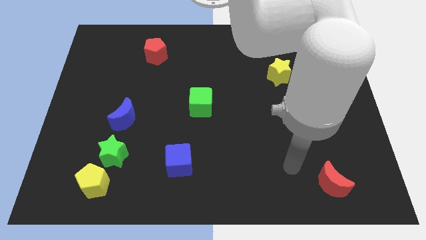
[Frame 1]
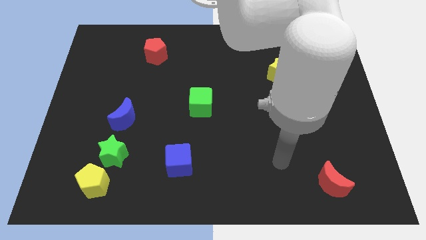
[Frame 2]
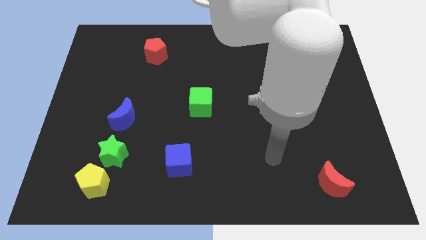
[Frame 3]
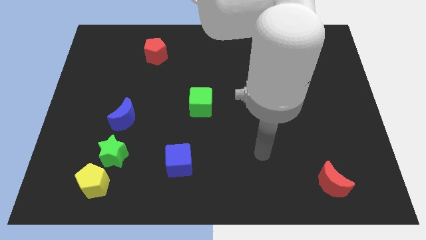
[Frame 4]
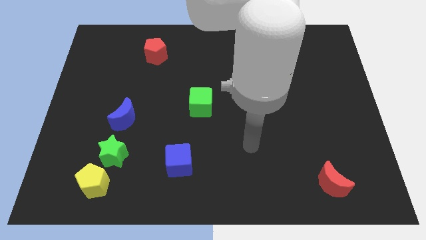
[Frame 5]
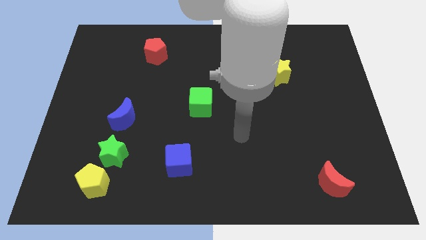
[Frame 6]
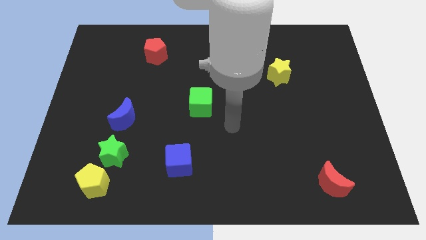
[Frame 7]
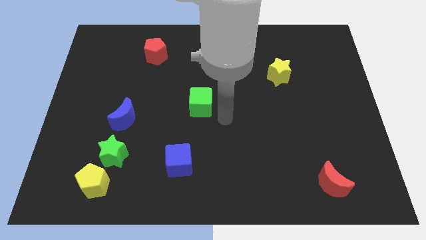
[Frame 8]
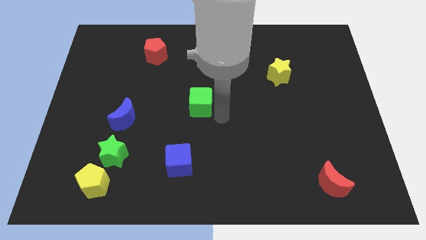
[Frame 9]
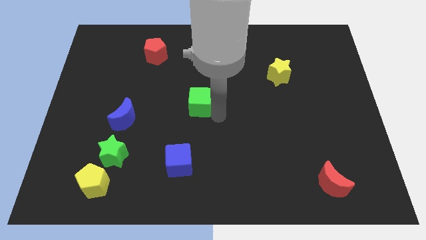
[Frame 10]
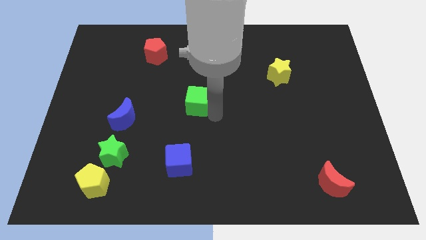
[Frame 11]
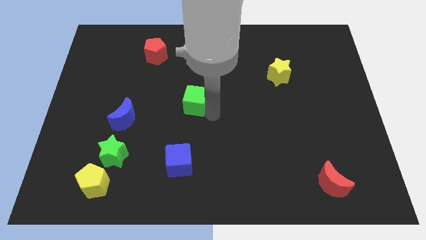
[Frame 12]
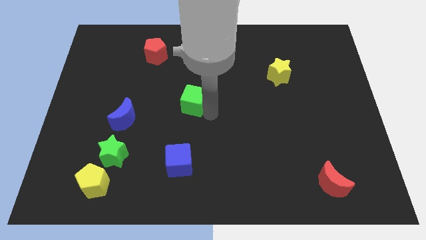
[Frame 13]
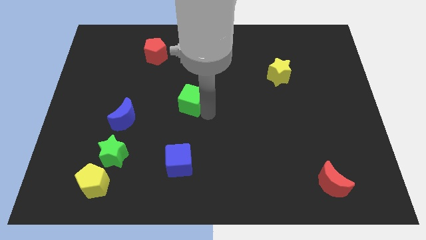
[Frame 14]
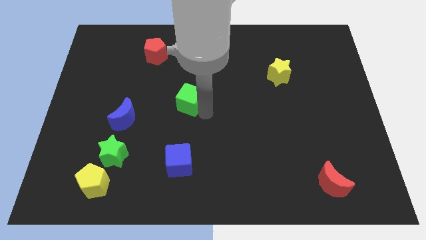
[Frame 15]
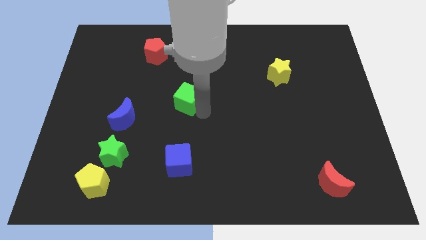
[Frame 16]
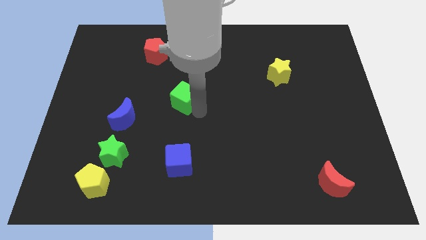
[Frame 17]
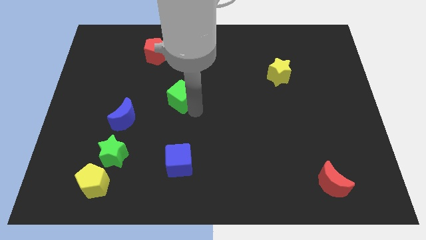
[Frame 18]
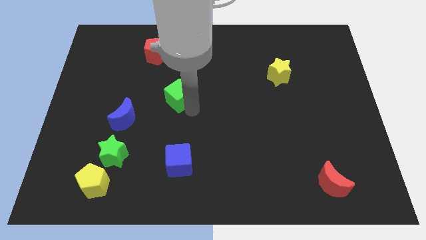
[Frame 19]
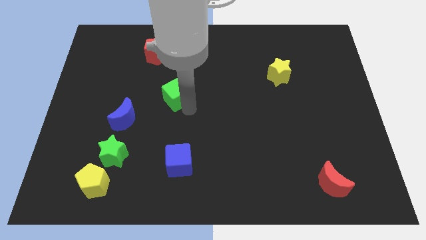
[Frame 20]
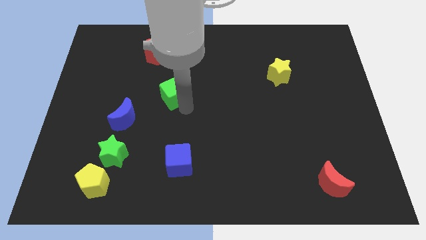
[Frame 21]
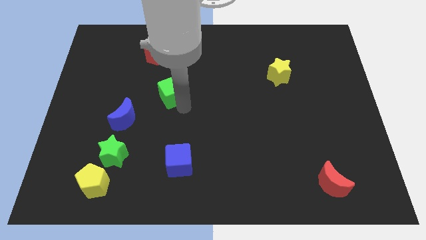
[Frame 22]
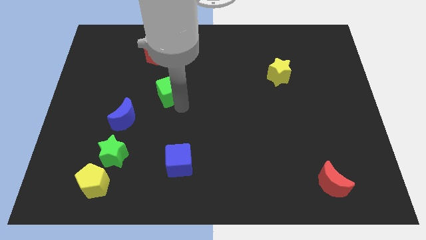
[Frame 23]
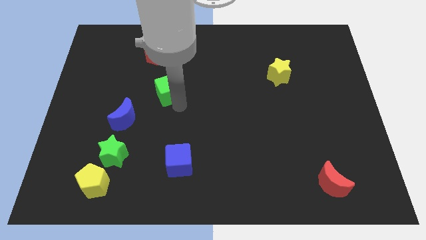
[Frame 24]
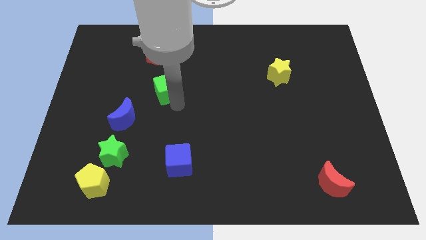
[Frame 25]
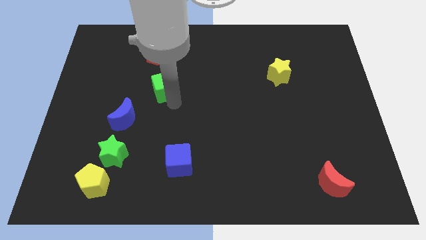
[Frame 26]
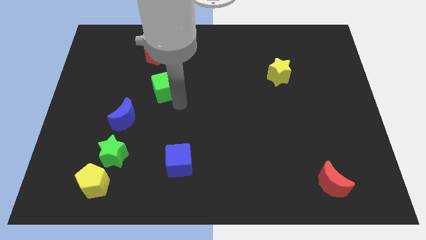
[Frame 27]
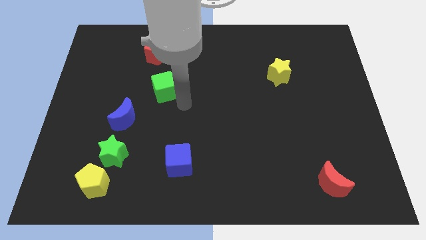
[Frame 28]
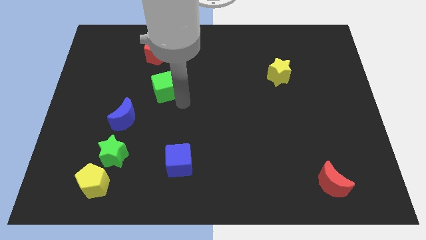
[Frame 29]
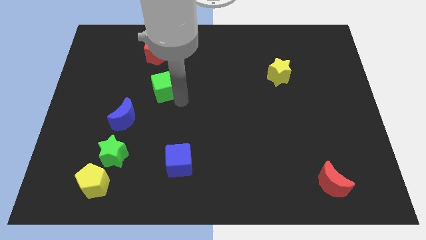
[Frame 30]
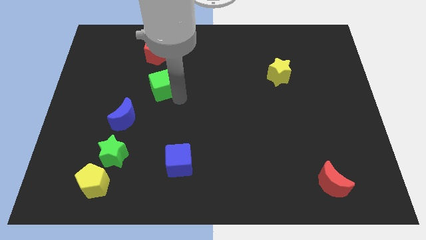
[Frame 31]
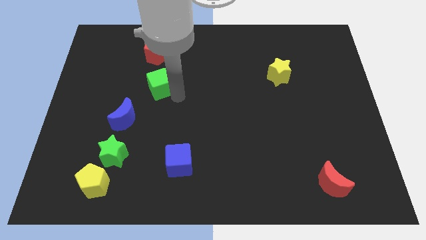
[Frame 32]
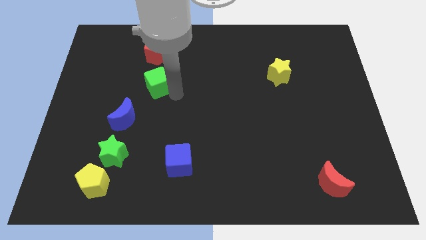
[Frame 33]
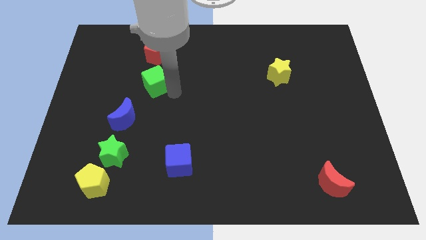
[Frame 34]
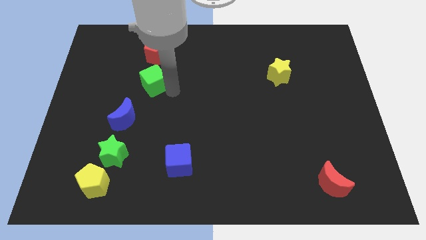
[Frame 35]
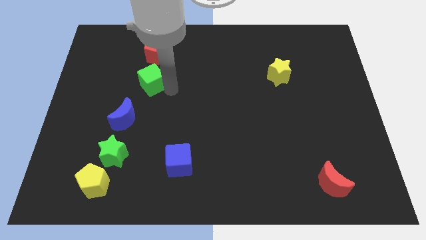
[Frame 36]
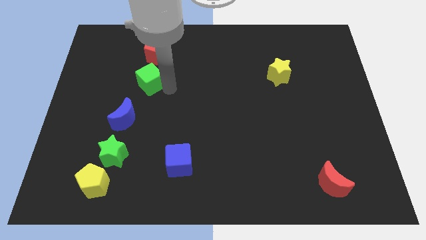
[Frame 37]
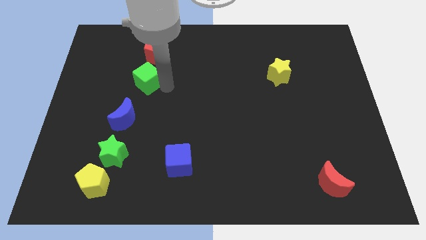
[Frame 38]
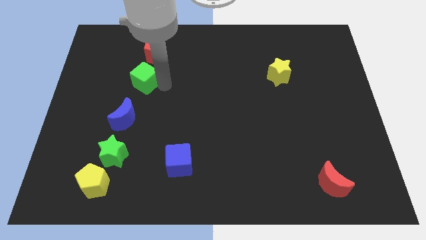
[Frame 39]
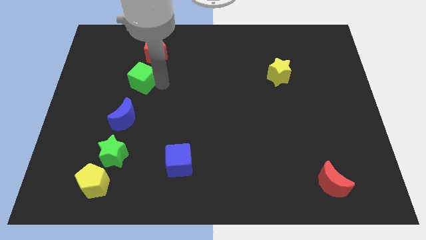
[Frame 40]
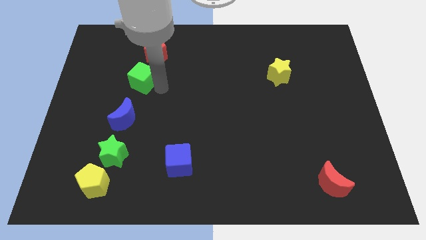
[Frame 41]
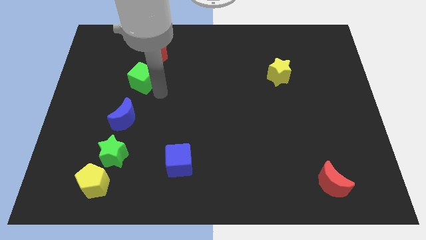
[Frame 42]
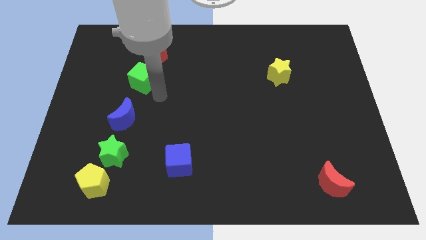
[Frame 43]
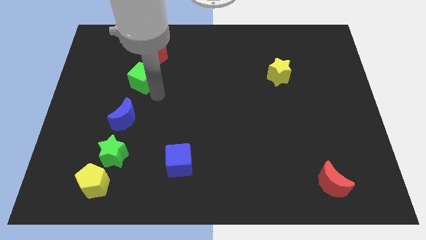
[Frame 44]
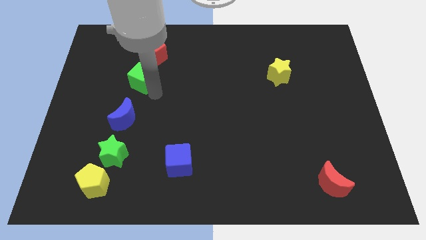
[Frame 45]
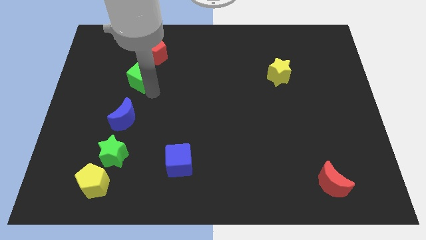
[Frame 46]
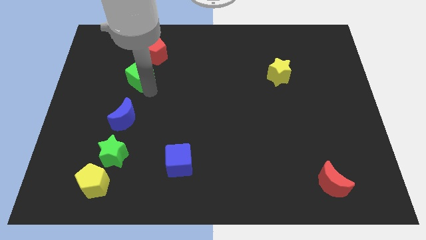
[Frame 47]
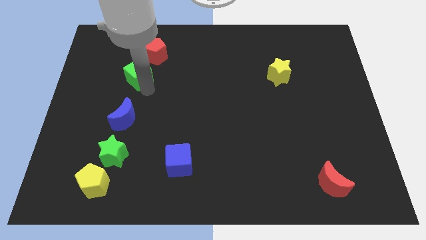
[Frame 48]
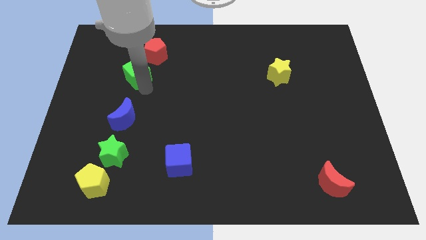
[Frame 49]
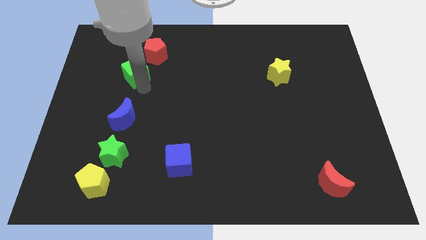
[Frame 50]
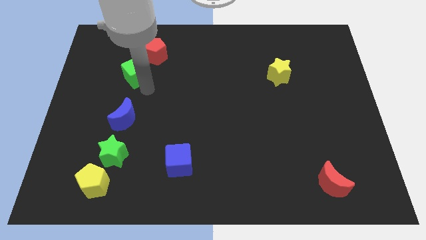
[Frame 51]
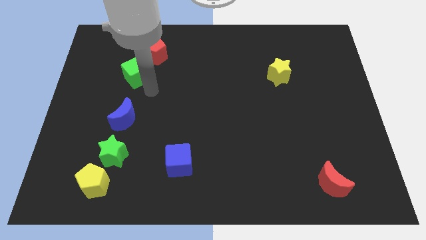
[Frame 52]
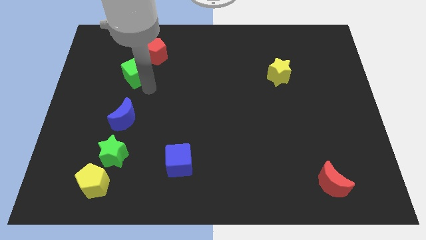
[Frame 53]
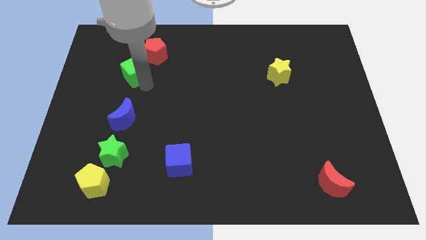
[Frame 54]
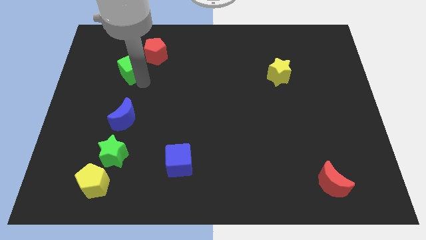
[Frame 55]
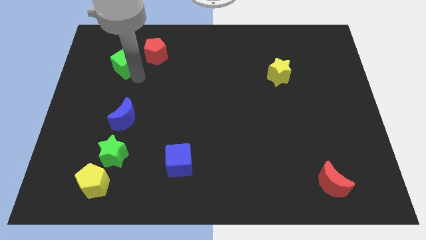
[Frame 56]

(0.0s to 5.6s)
move the green cube to the left side of the red pentagon

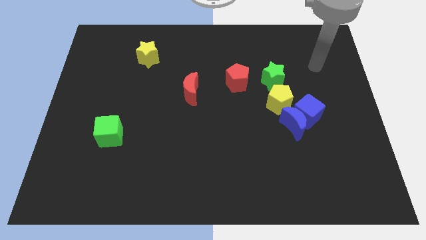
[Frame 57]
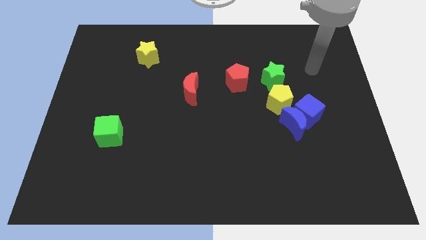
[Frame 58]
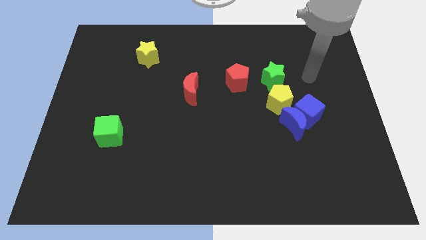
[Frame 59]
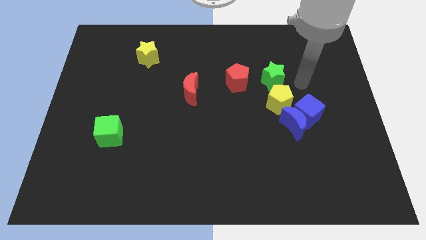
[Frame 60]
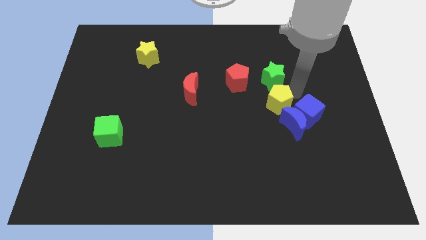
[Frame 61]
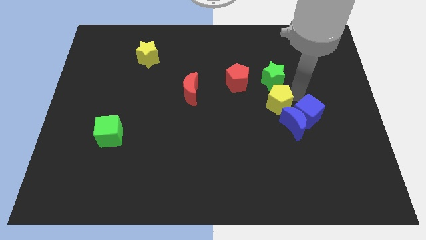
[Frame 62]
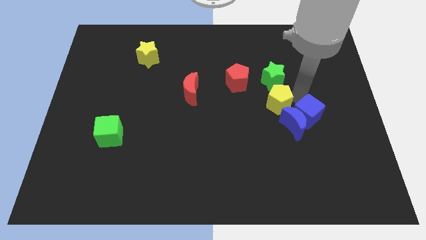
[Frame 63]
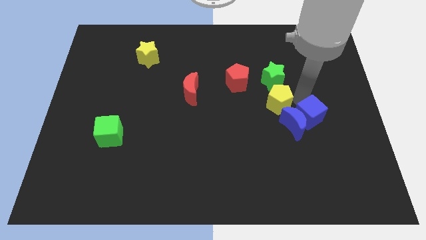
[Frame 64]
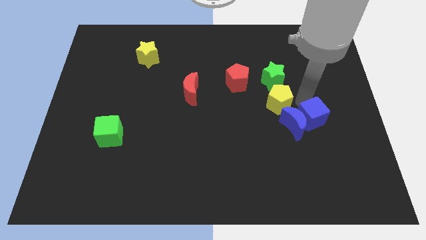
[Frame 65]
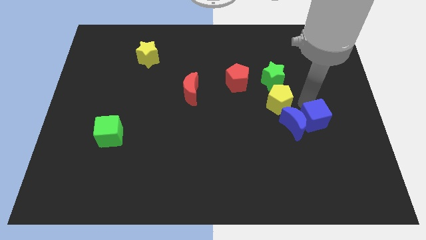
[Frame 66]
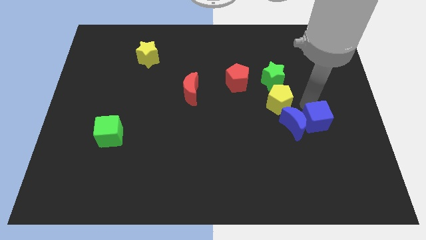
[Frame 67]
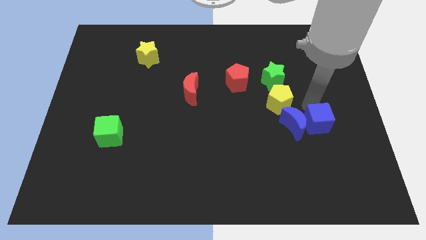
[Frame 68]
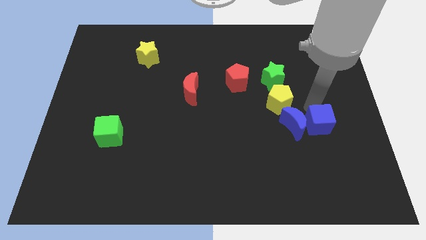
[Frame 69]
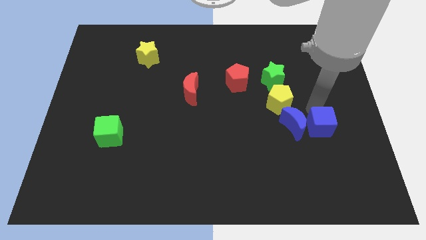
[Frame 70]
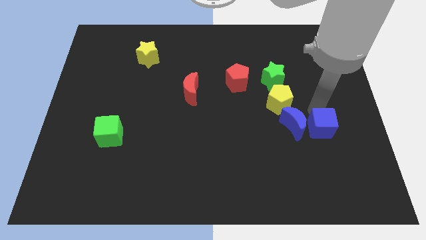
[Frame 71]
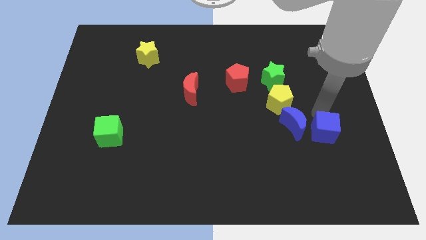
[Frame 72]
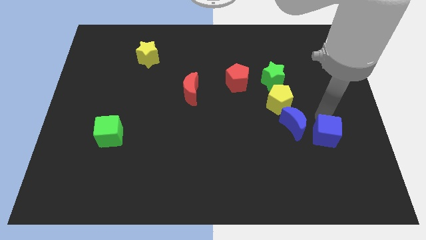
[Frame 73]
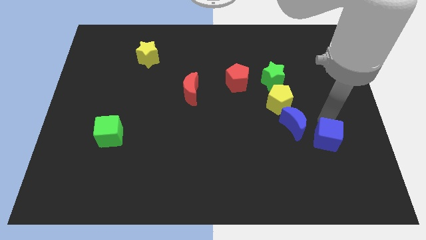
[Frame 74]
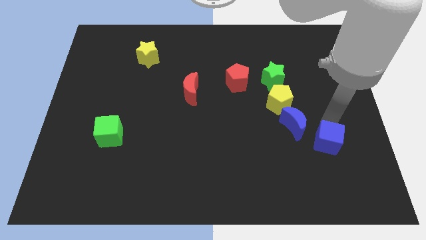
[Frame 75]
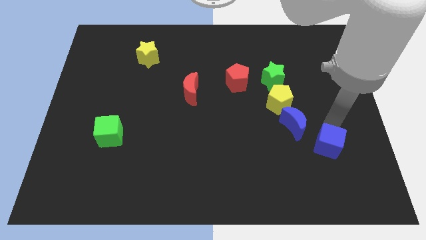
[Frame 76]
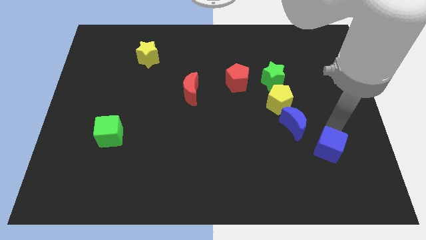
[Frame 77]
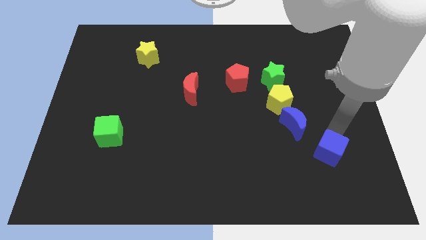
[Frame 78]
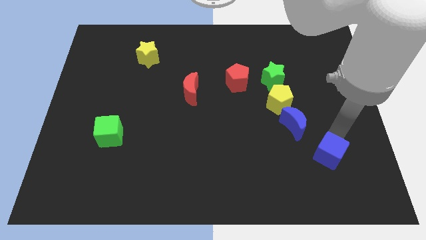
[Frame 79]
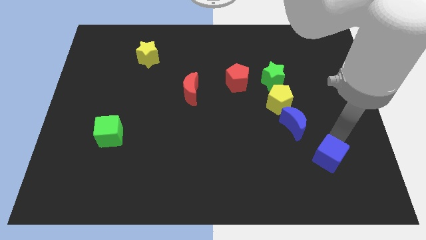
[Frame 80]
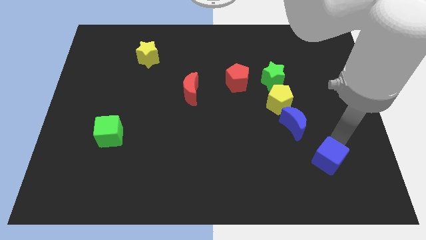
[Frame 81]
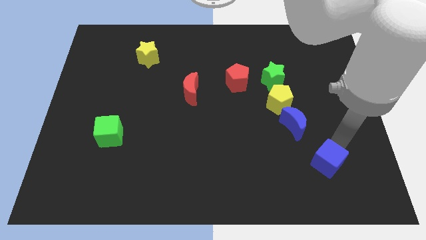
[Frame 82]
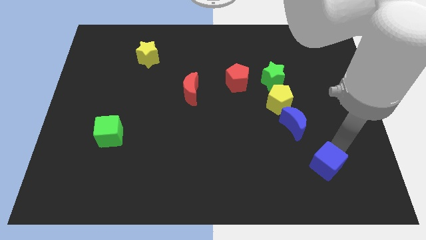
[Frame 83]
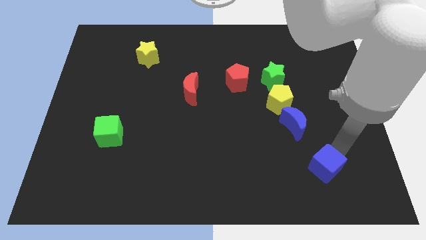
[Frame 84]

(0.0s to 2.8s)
slide the blue cube to the bottom of the blue moon
